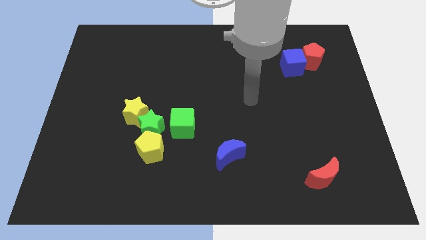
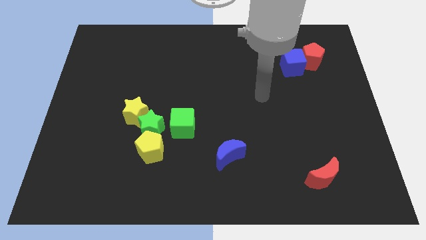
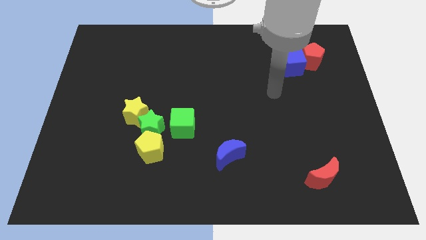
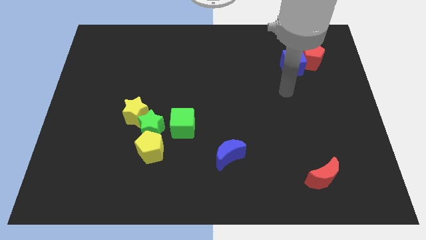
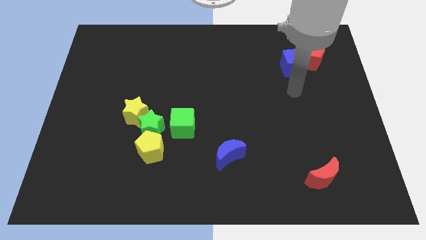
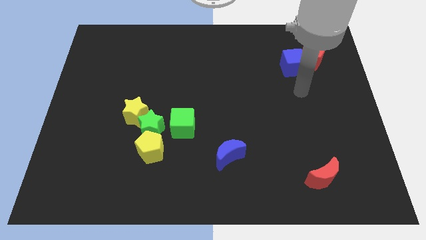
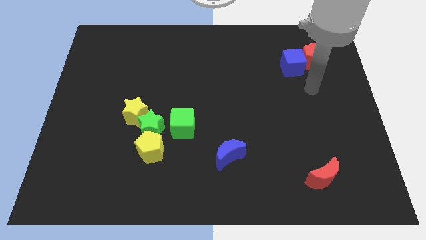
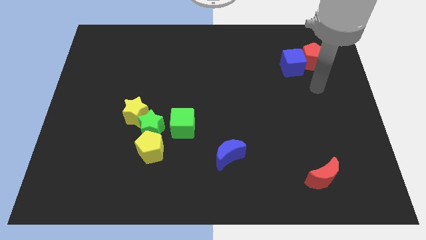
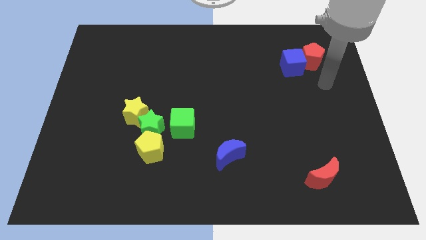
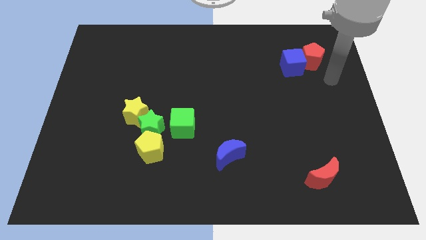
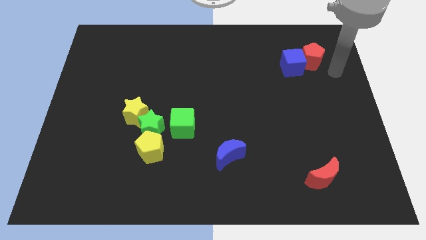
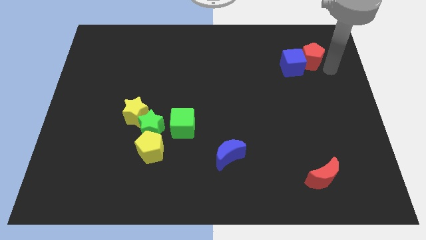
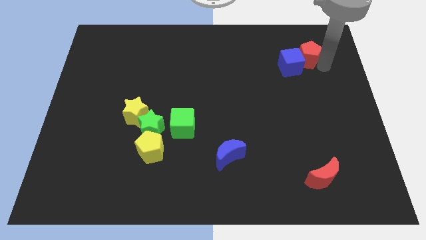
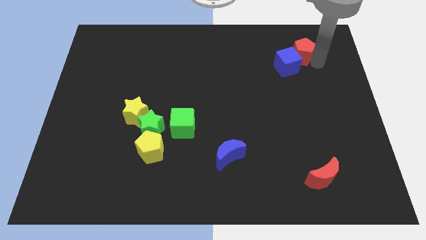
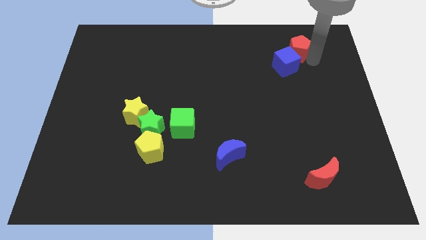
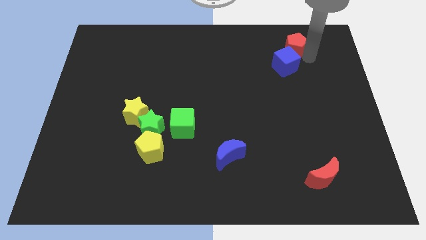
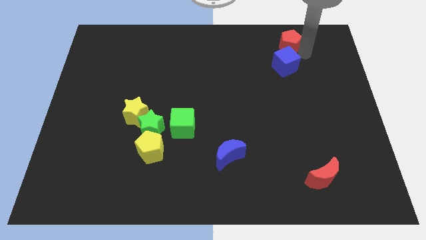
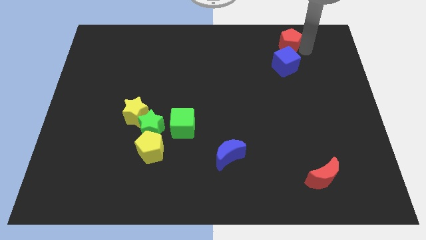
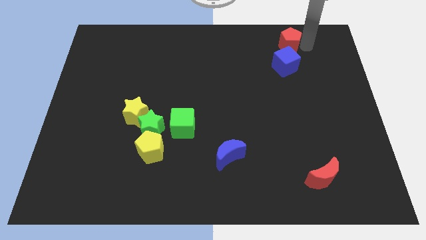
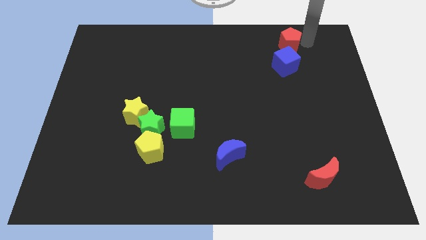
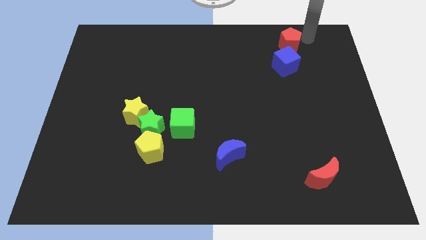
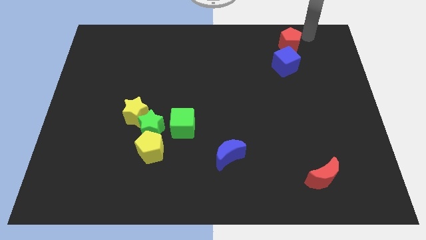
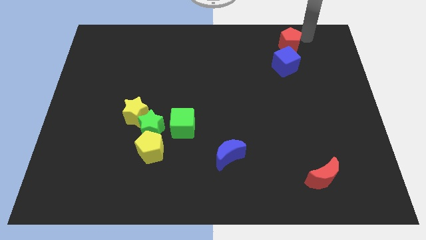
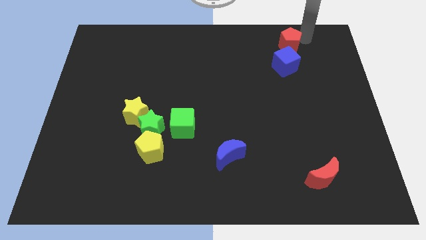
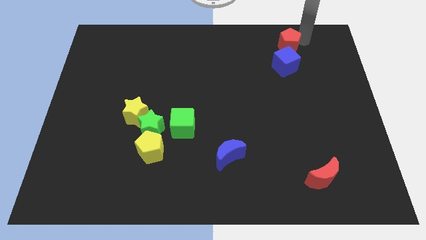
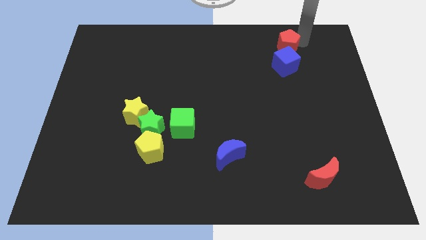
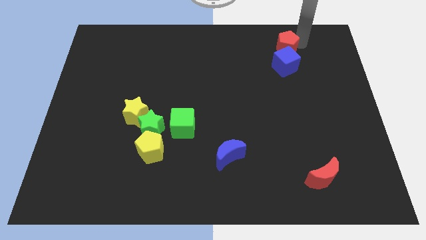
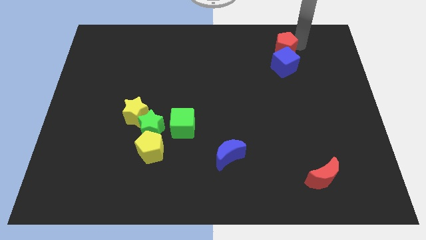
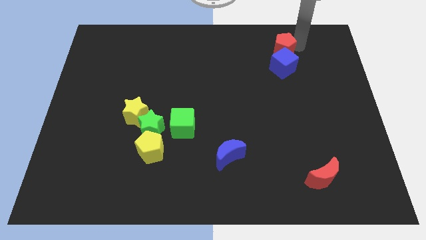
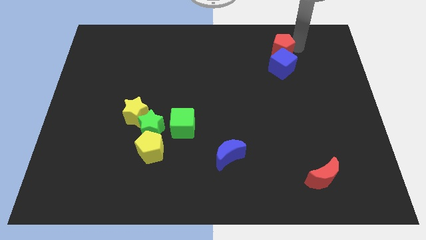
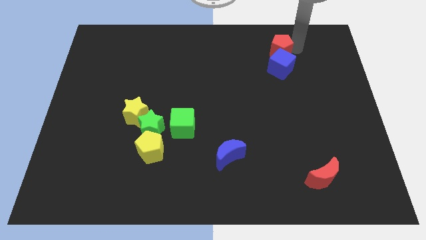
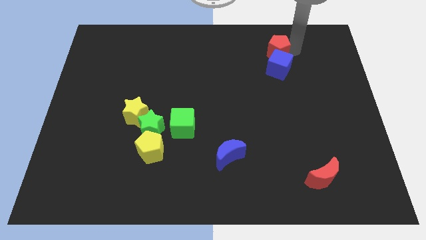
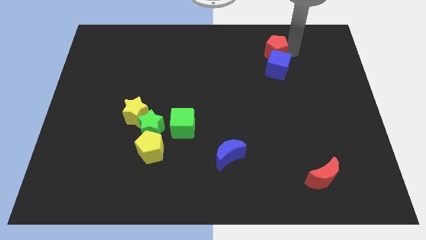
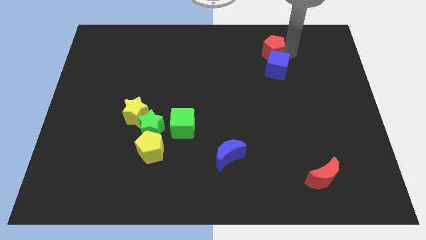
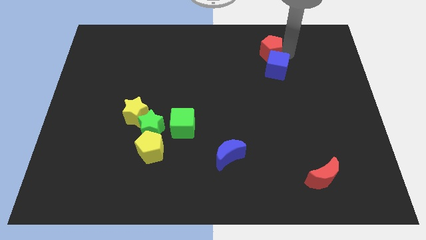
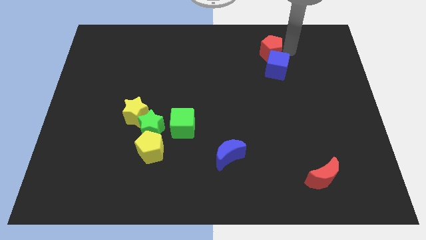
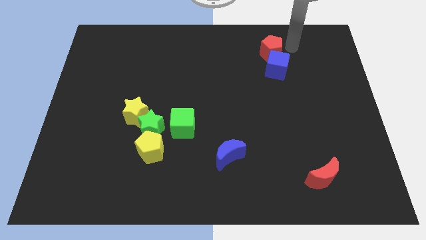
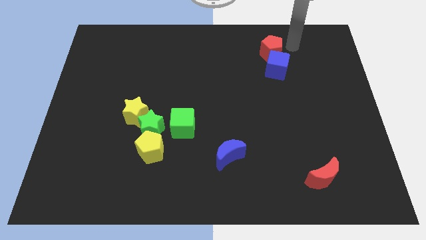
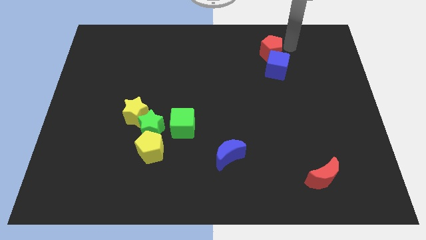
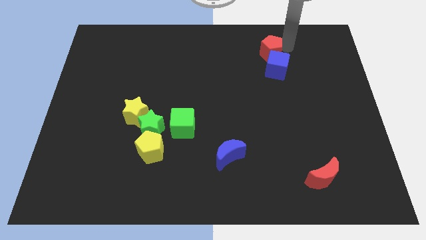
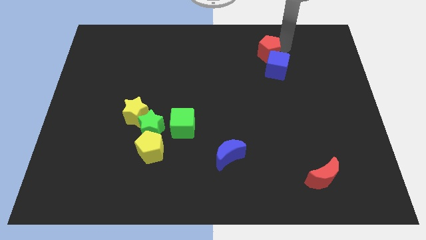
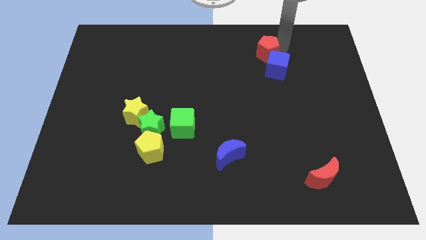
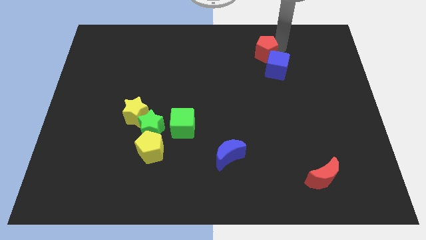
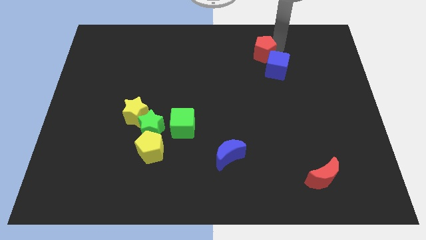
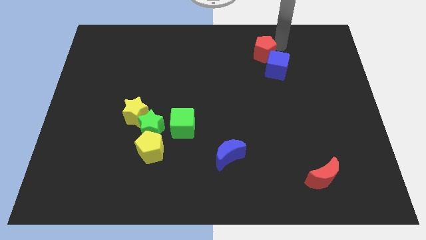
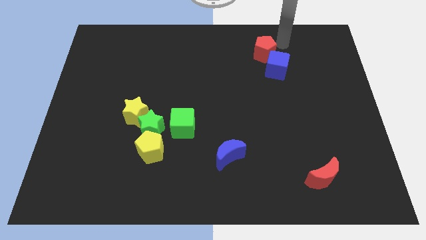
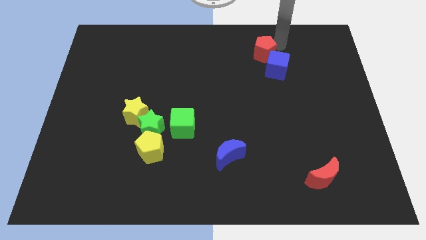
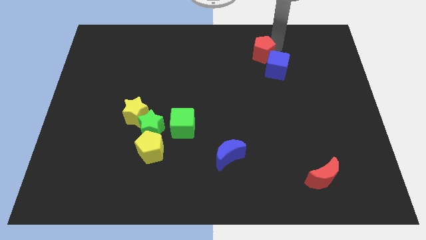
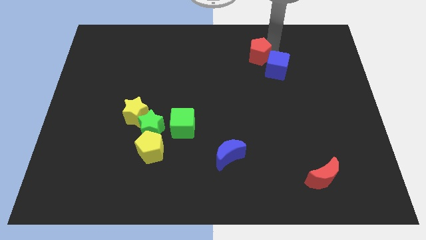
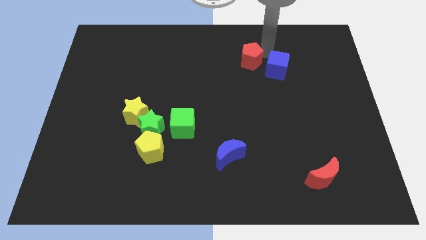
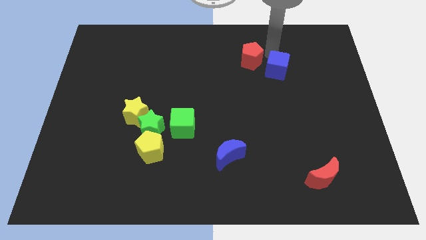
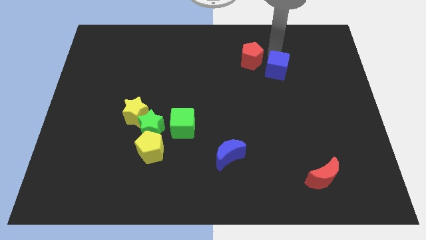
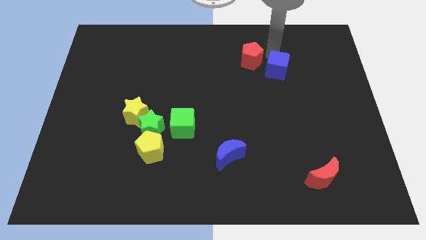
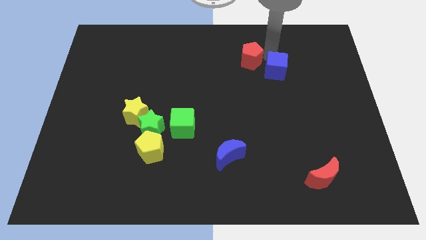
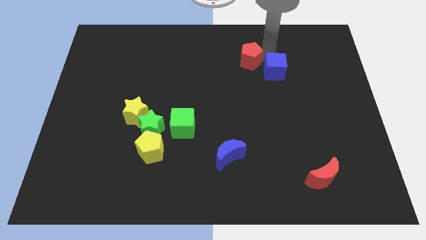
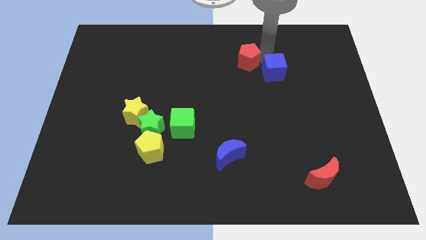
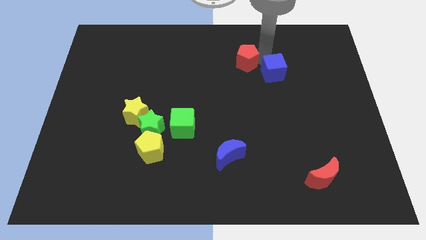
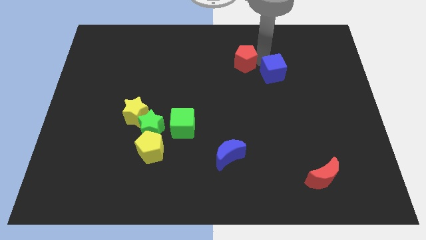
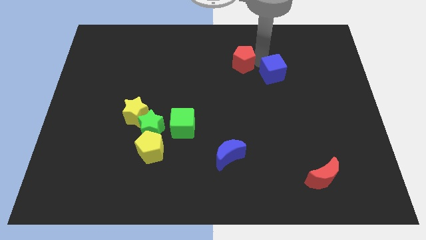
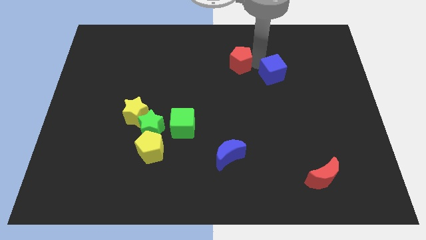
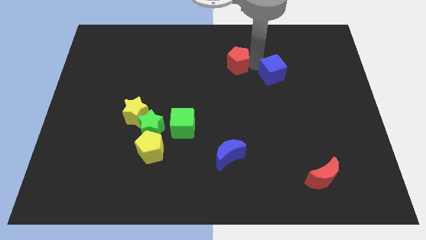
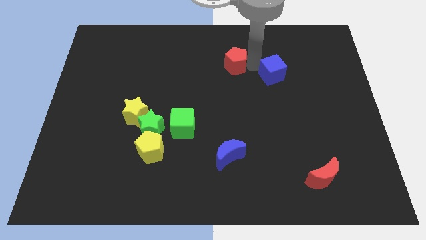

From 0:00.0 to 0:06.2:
move the red pentagon to the left

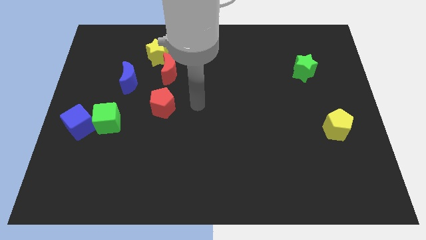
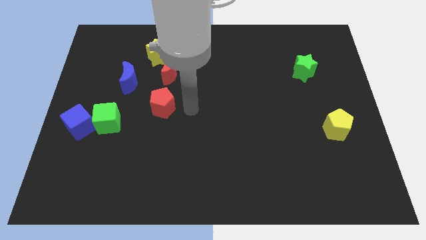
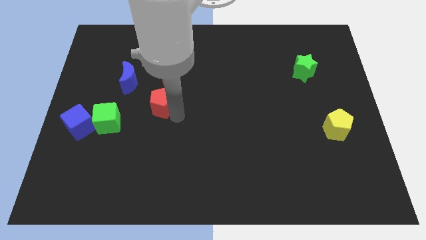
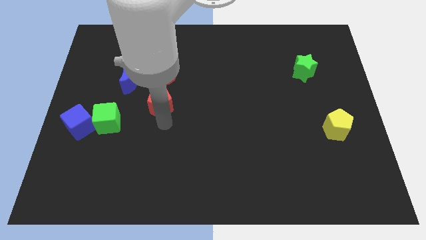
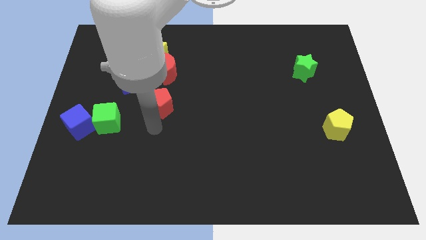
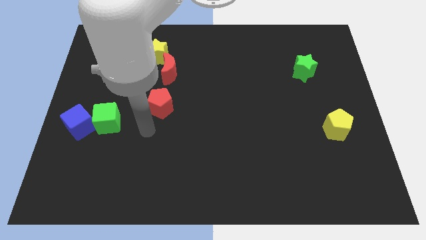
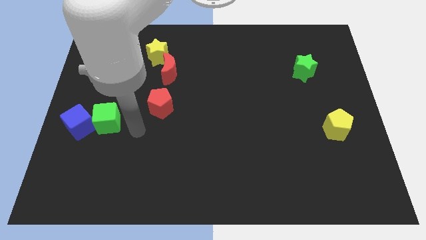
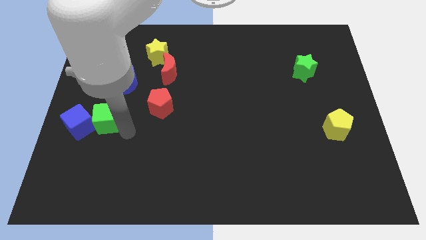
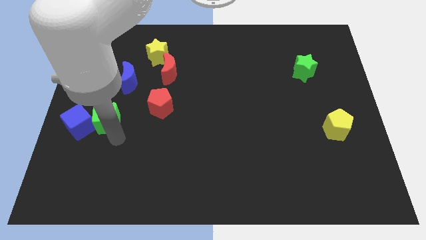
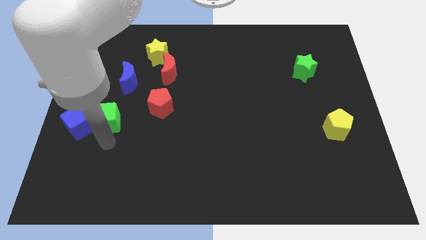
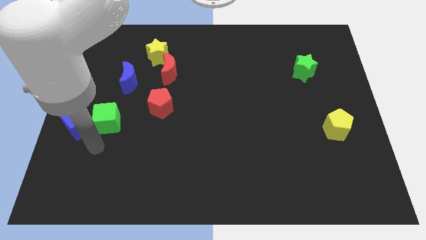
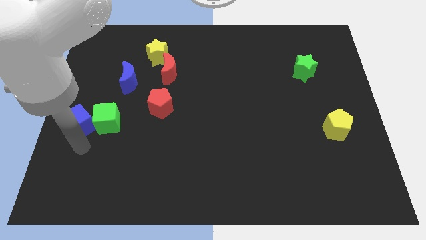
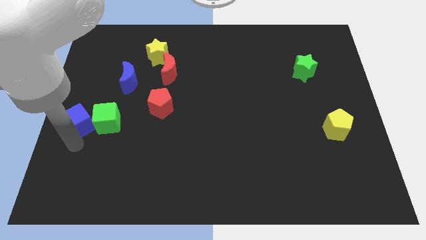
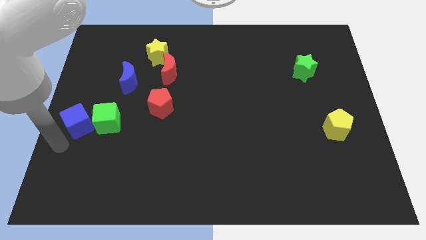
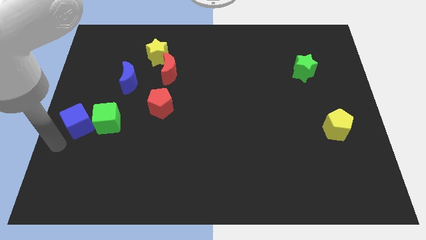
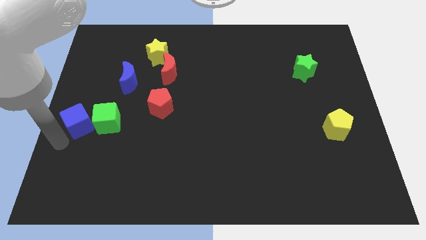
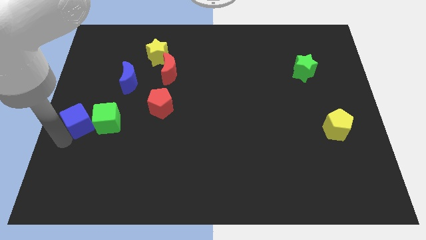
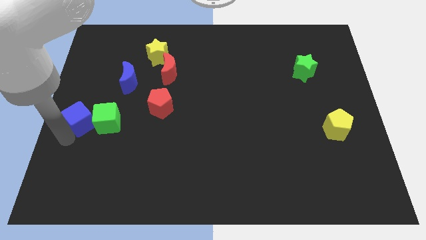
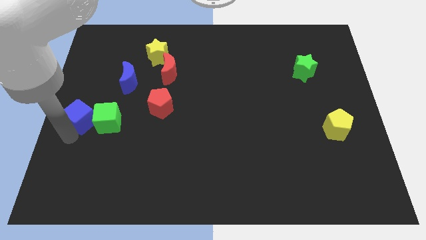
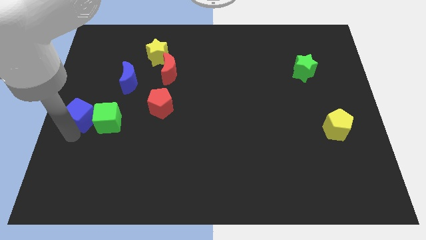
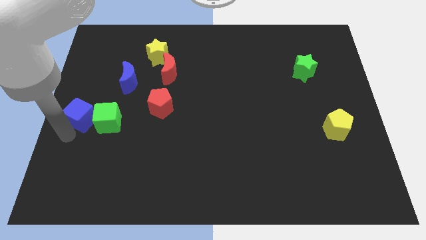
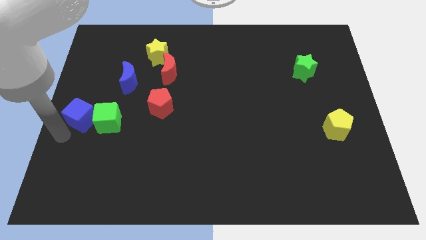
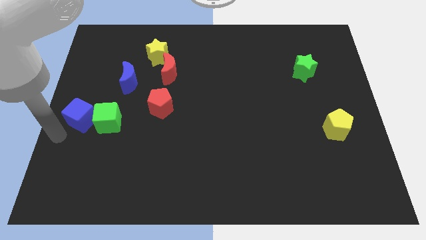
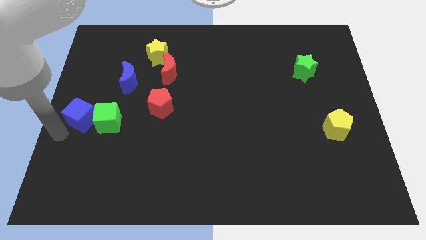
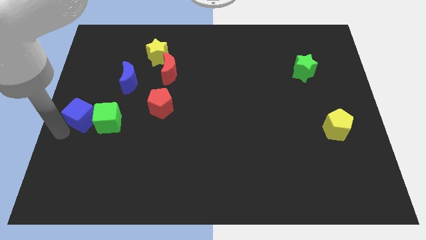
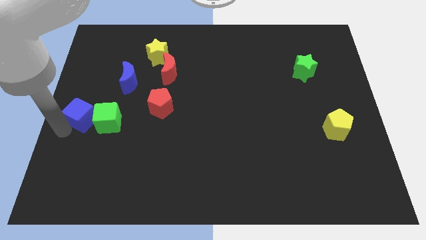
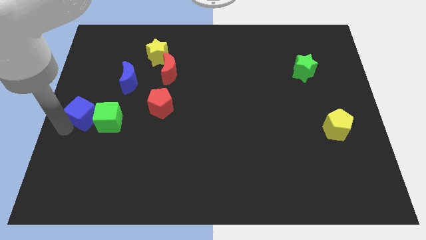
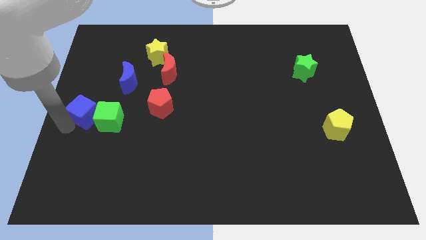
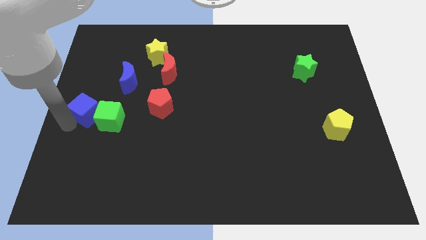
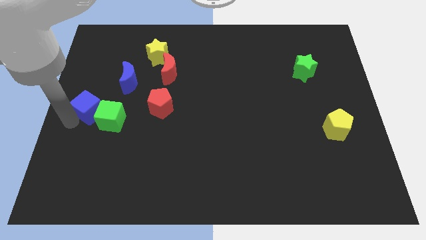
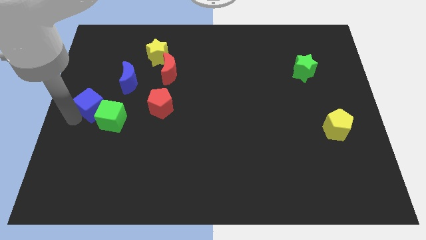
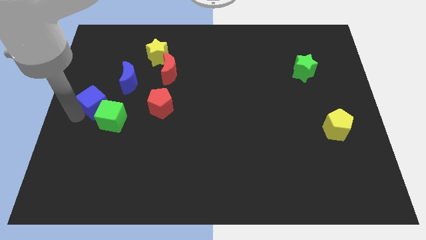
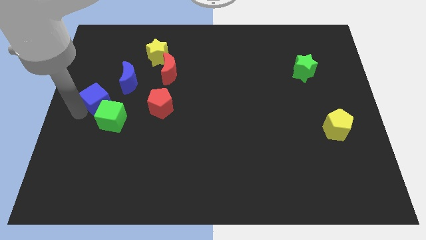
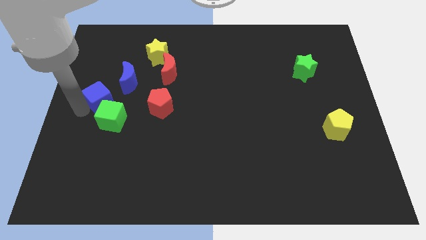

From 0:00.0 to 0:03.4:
move the blue cube upwards and to the right diagonally a little bit
